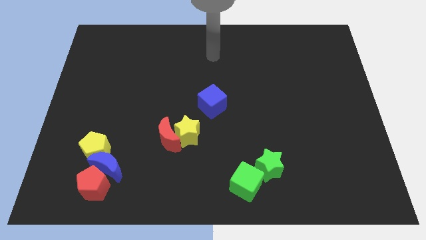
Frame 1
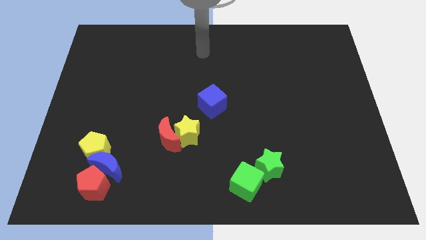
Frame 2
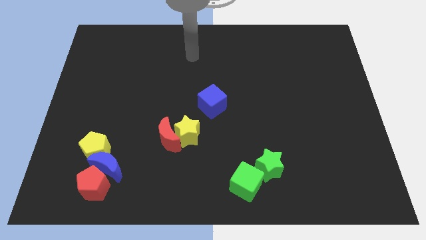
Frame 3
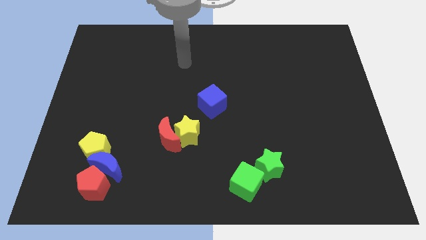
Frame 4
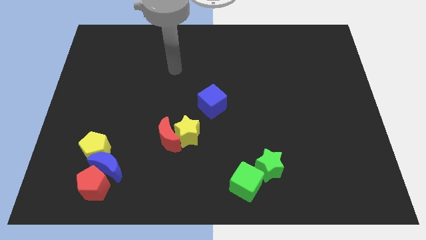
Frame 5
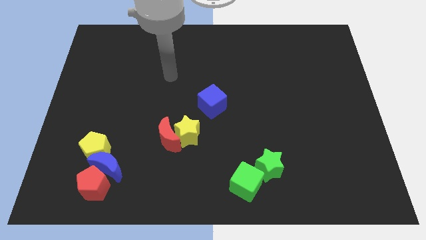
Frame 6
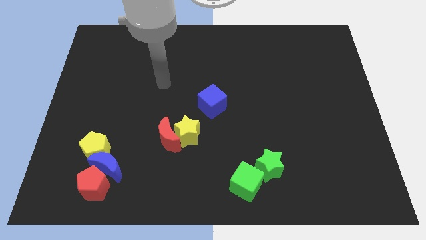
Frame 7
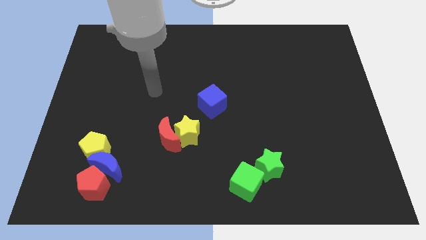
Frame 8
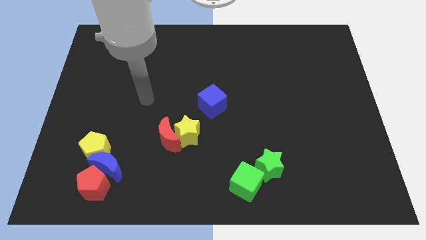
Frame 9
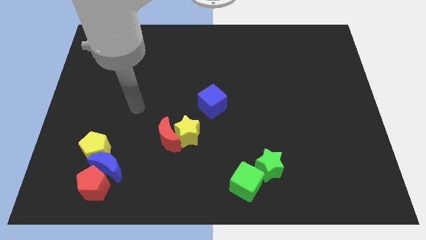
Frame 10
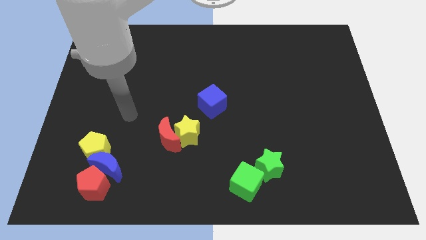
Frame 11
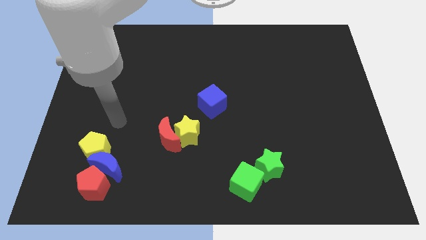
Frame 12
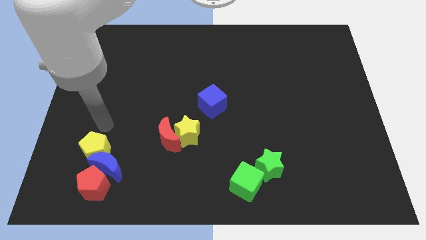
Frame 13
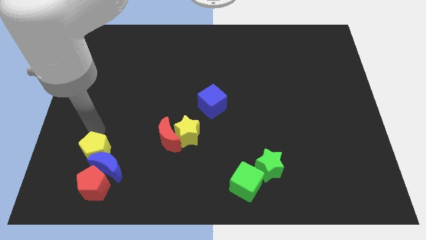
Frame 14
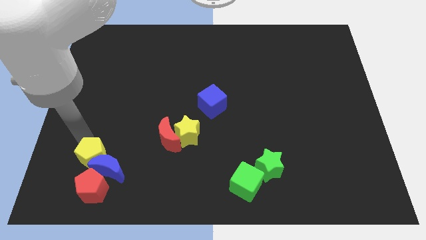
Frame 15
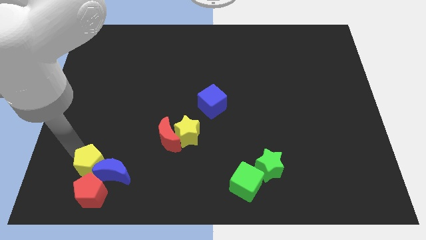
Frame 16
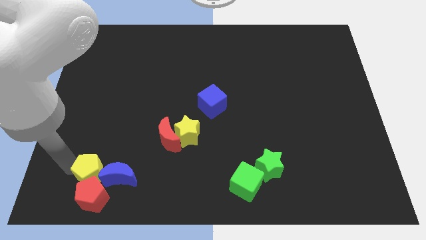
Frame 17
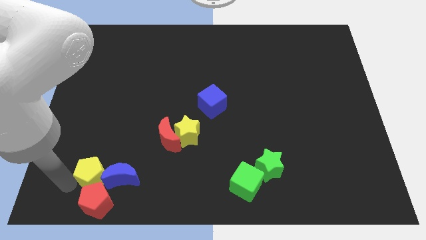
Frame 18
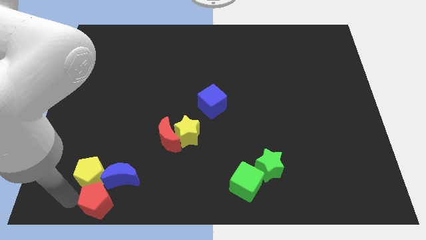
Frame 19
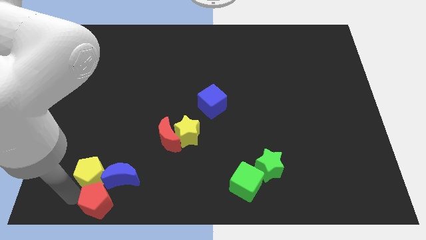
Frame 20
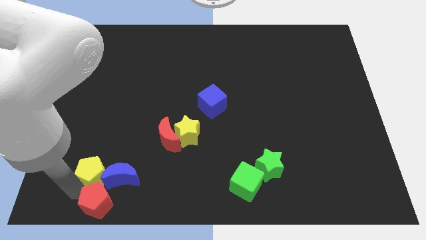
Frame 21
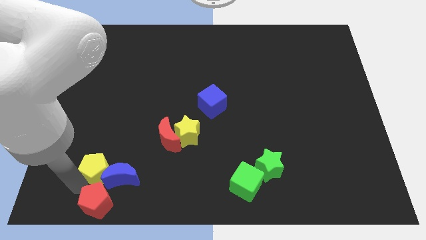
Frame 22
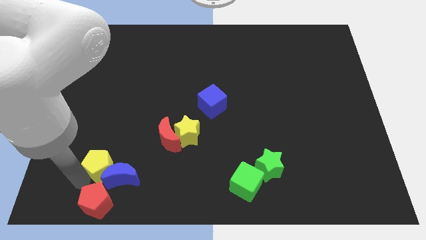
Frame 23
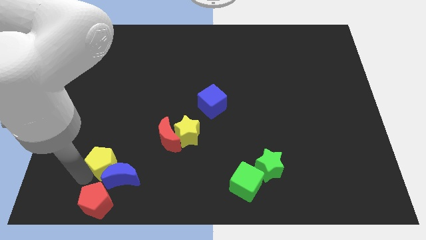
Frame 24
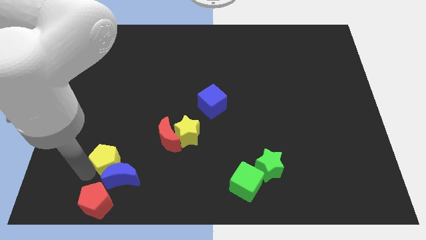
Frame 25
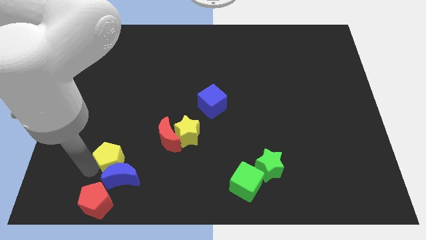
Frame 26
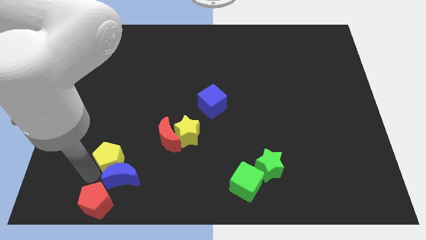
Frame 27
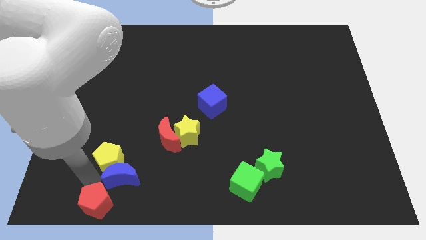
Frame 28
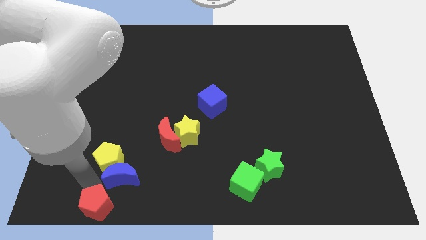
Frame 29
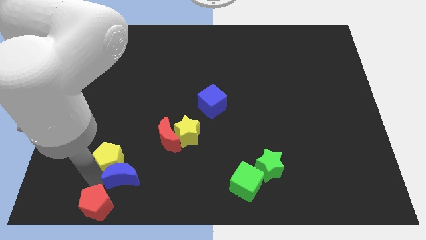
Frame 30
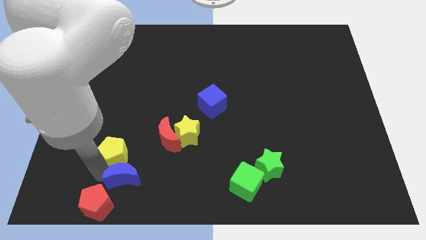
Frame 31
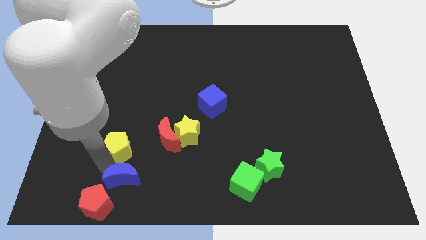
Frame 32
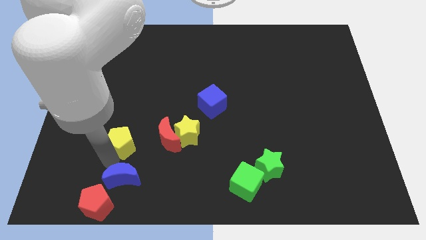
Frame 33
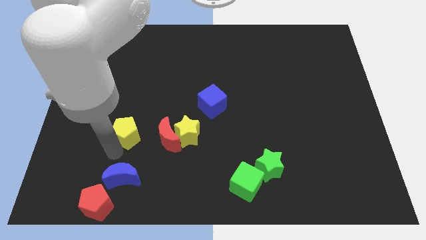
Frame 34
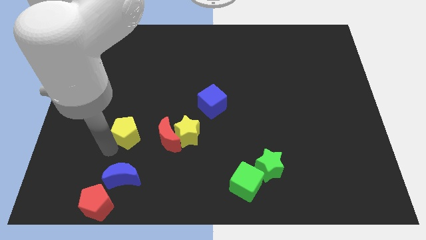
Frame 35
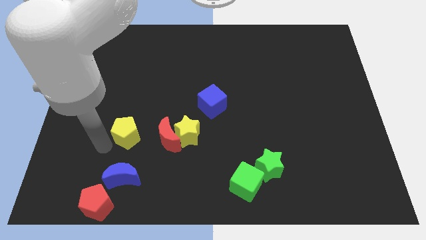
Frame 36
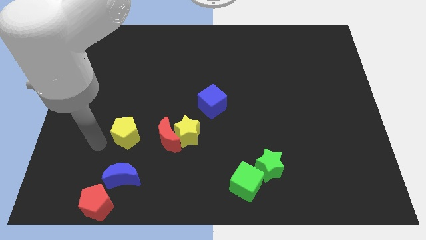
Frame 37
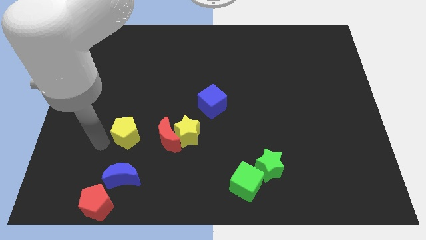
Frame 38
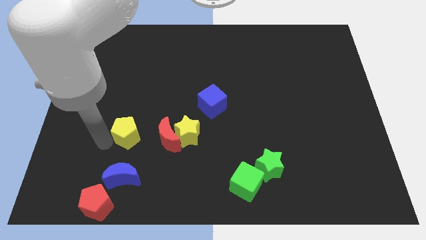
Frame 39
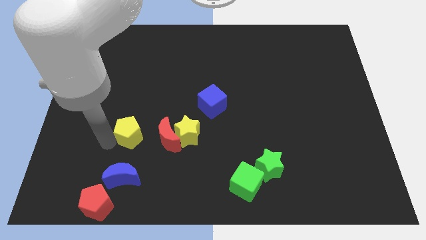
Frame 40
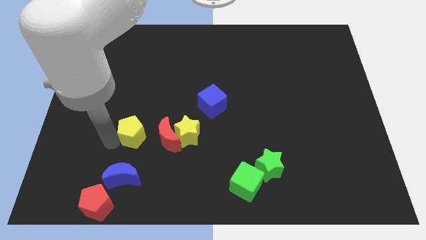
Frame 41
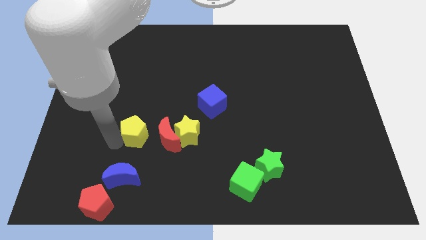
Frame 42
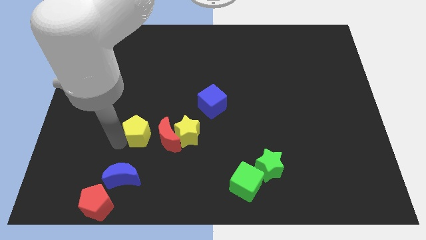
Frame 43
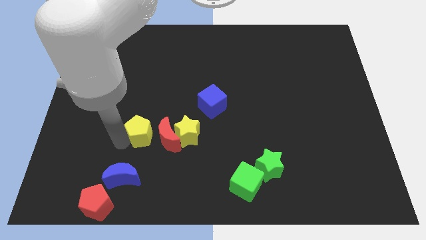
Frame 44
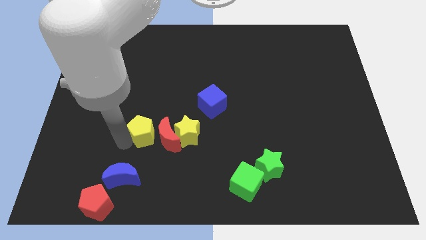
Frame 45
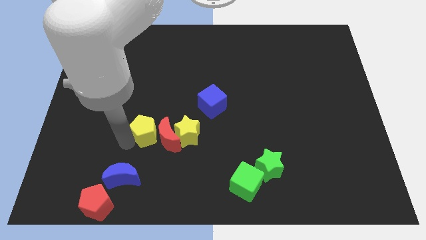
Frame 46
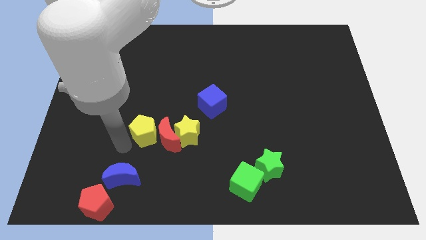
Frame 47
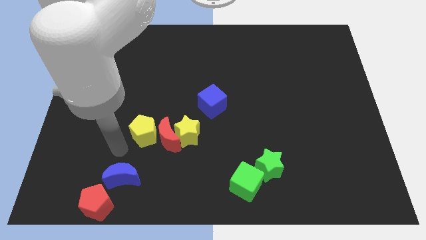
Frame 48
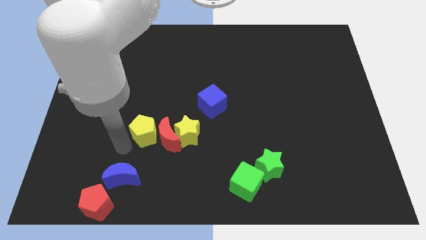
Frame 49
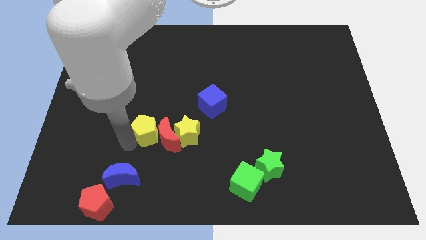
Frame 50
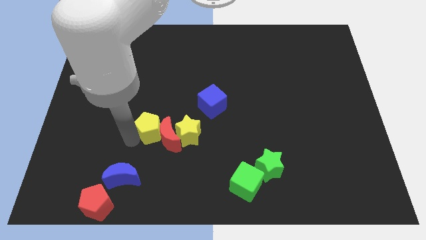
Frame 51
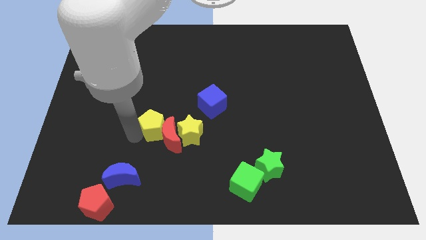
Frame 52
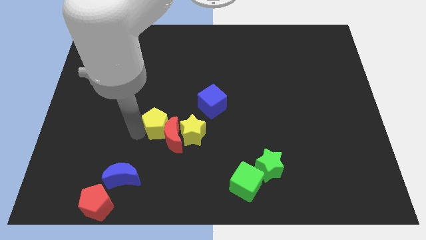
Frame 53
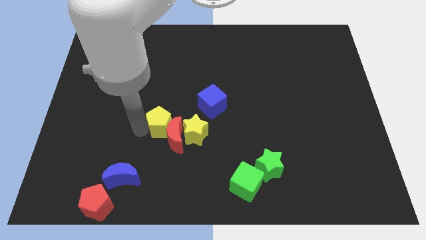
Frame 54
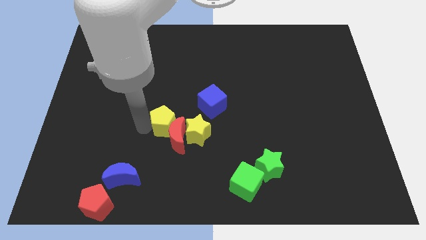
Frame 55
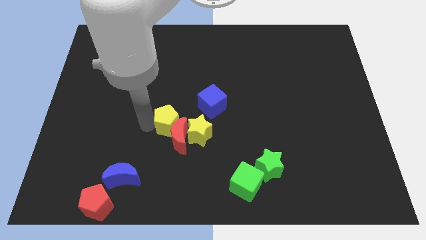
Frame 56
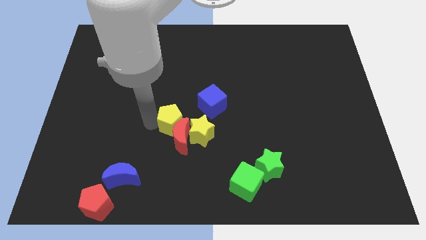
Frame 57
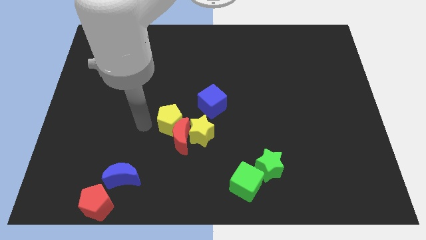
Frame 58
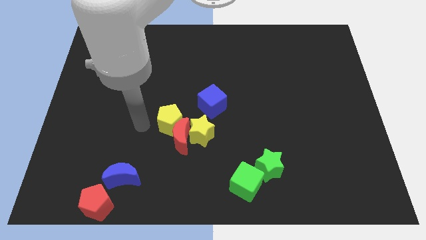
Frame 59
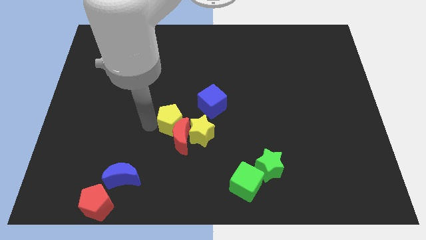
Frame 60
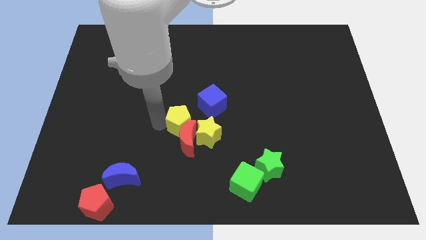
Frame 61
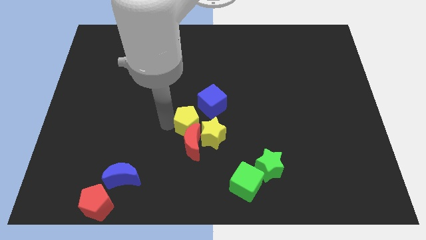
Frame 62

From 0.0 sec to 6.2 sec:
move the yellow pentagon diagonally up and to the right of the red moon

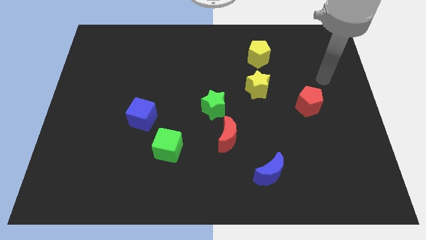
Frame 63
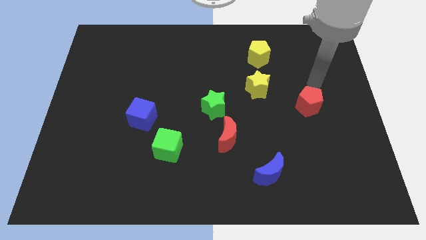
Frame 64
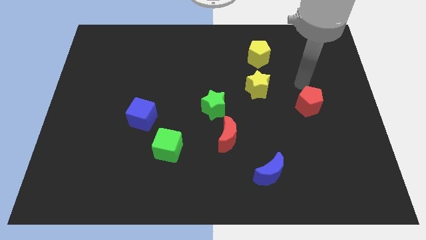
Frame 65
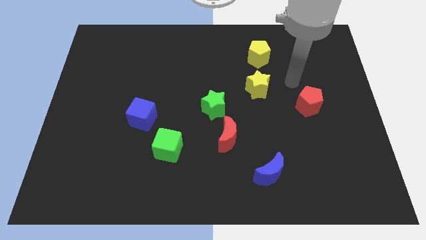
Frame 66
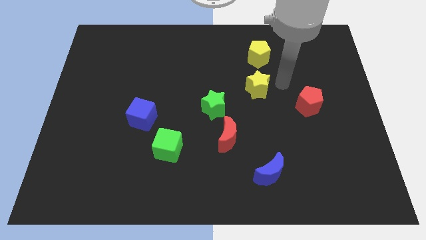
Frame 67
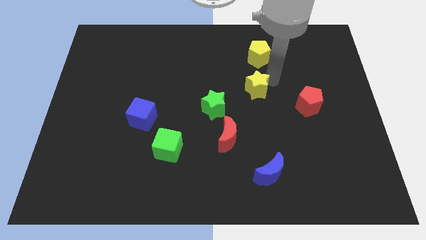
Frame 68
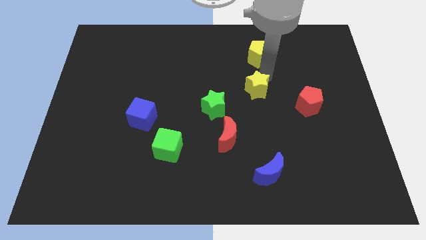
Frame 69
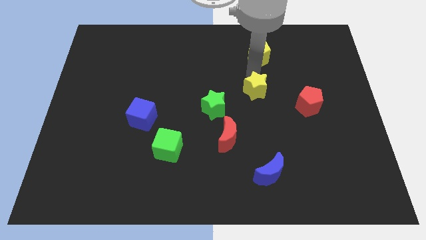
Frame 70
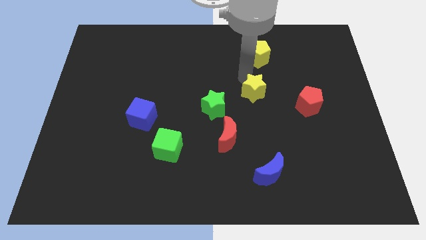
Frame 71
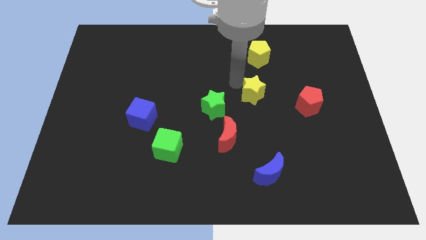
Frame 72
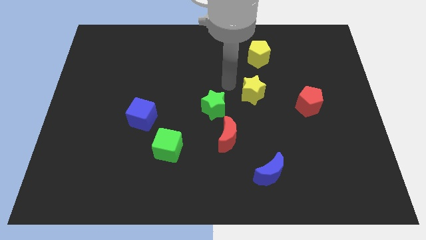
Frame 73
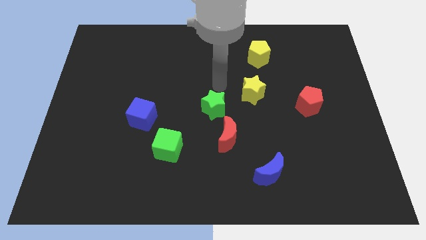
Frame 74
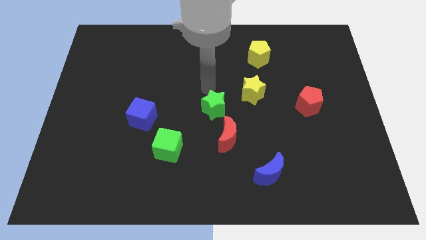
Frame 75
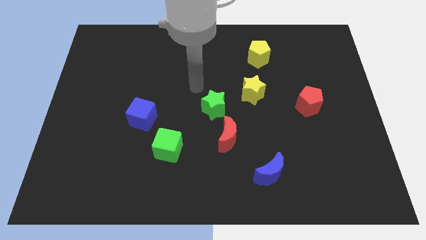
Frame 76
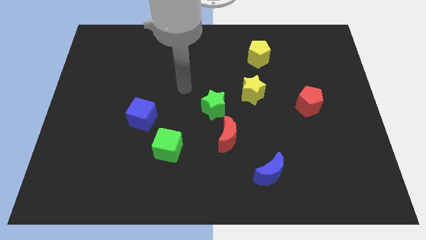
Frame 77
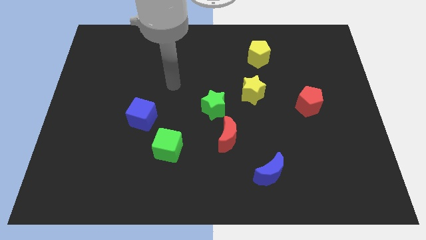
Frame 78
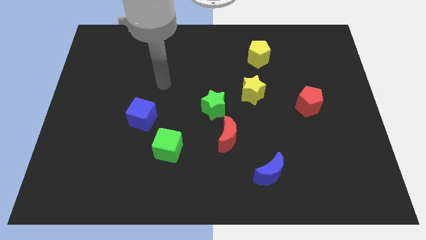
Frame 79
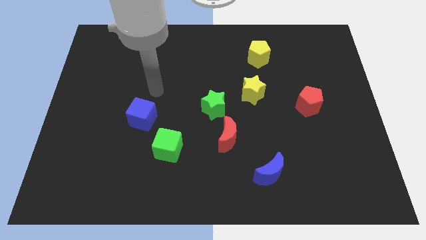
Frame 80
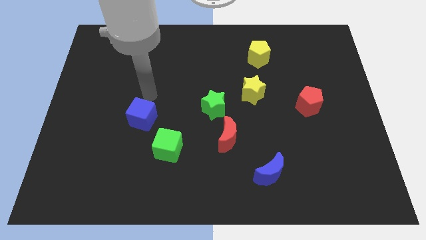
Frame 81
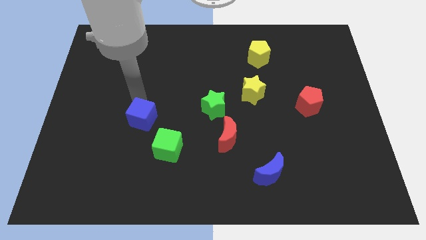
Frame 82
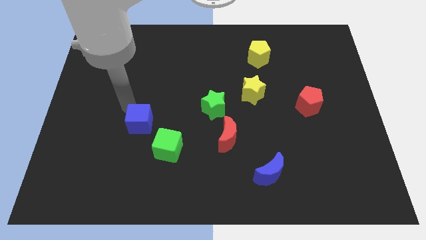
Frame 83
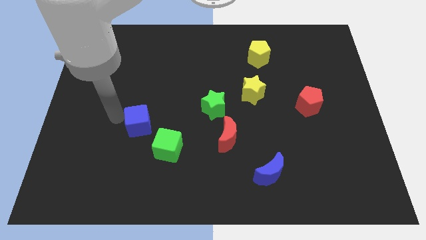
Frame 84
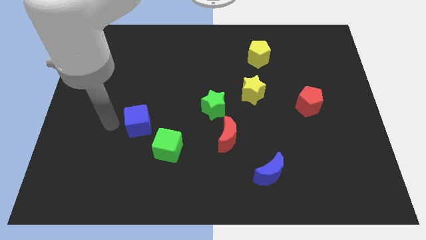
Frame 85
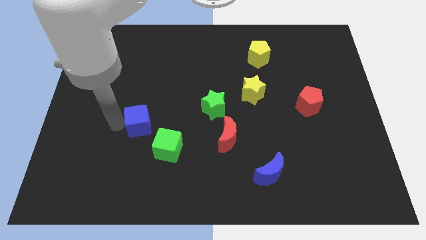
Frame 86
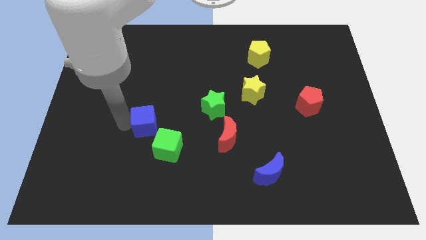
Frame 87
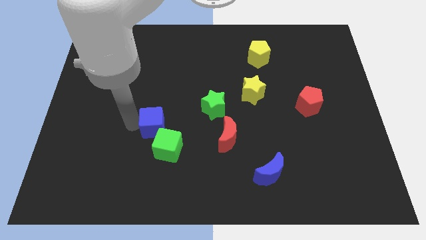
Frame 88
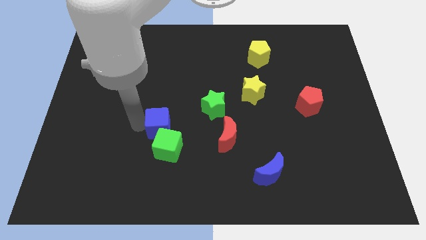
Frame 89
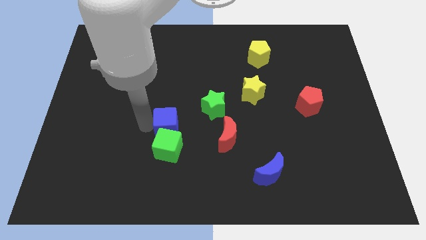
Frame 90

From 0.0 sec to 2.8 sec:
slide the blue cube to the bottom left of the green star
